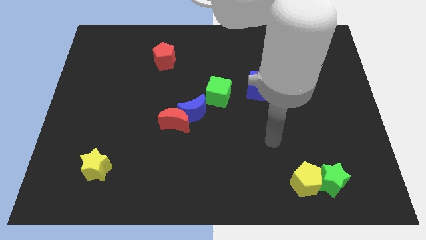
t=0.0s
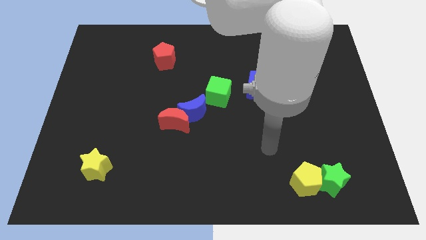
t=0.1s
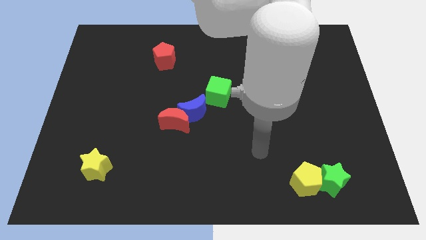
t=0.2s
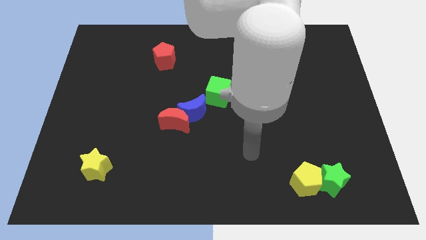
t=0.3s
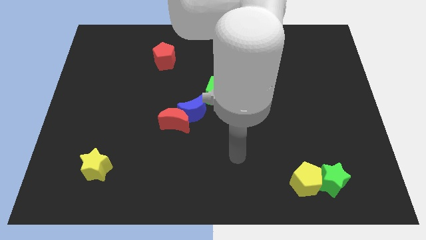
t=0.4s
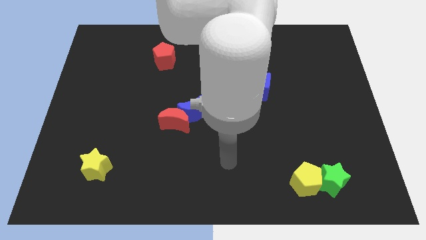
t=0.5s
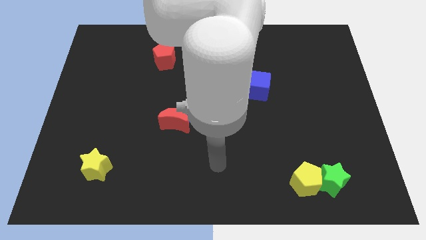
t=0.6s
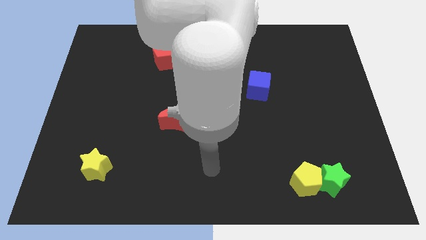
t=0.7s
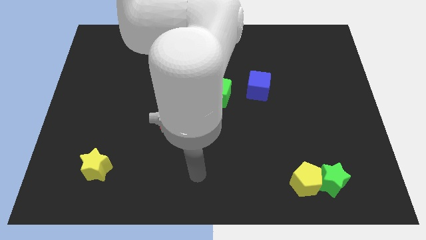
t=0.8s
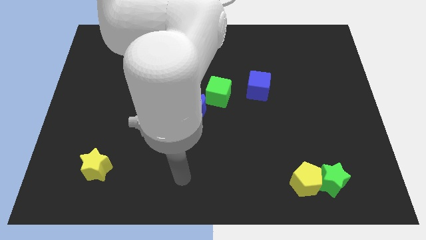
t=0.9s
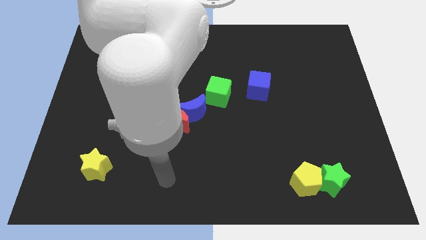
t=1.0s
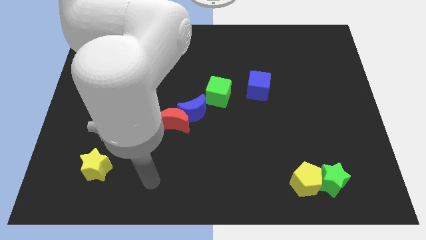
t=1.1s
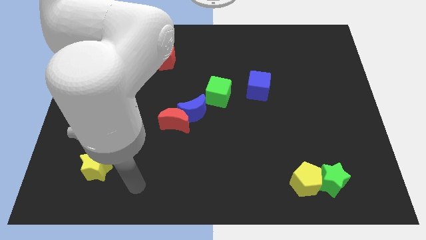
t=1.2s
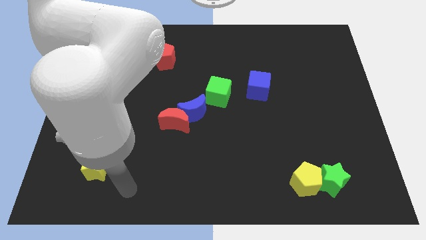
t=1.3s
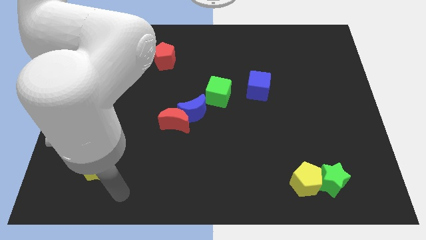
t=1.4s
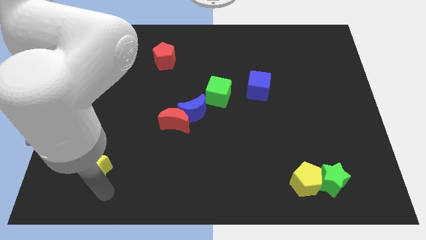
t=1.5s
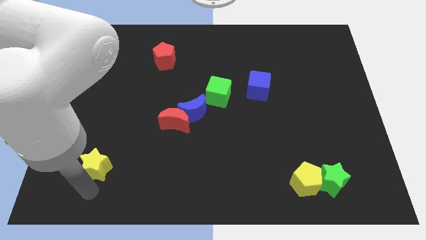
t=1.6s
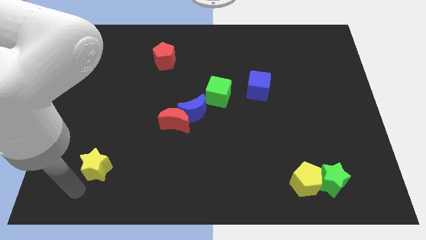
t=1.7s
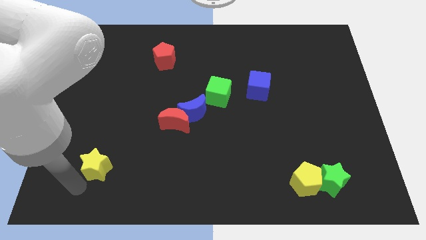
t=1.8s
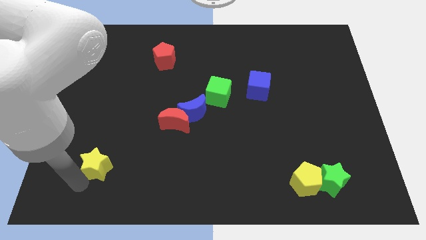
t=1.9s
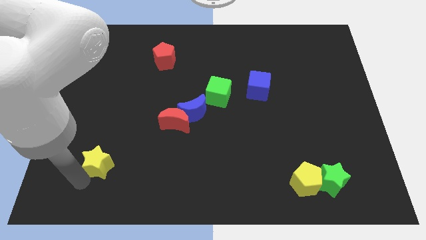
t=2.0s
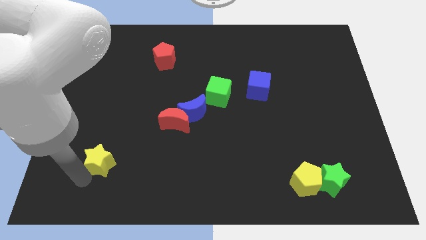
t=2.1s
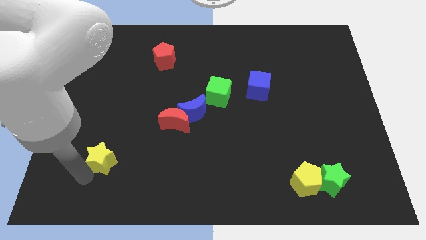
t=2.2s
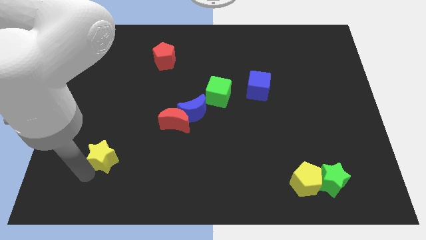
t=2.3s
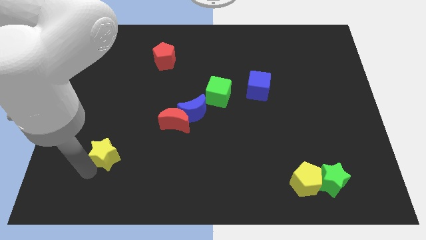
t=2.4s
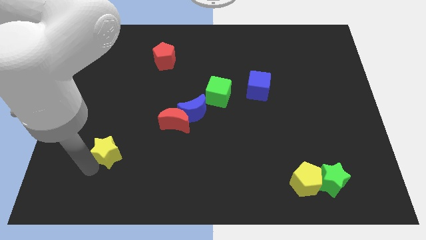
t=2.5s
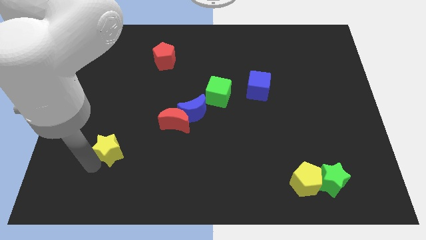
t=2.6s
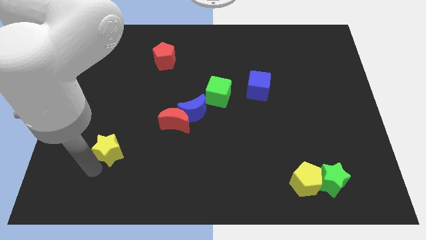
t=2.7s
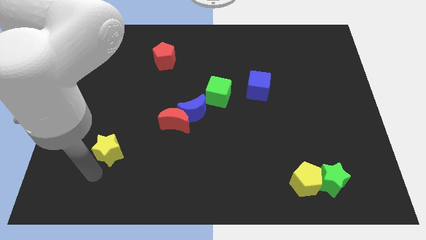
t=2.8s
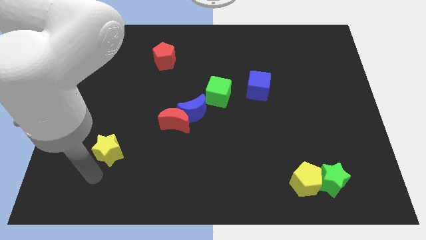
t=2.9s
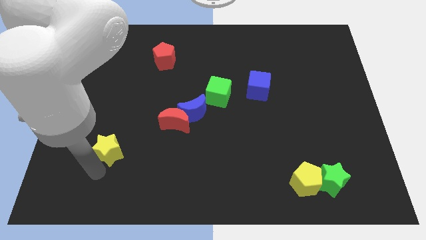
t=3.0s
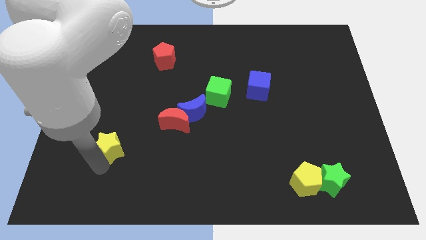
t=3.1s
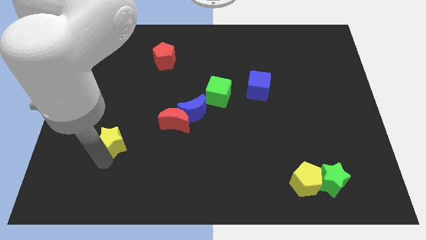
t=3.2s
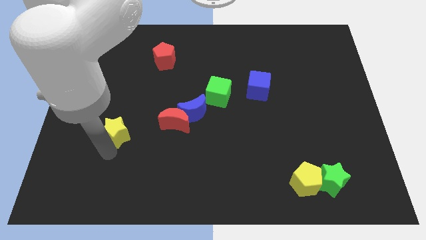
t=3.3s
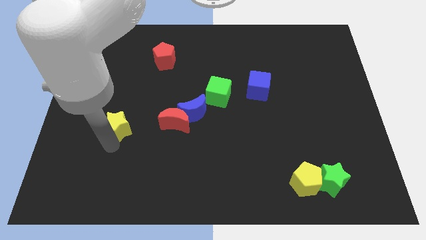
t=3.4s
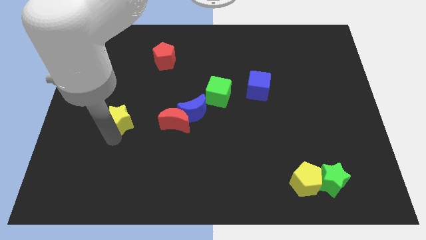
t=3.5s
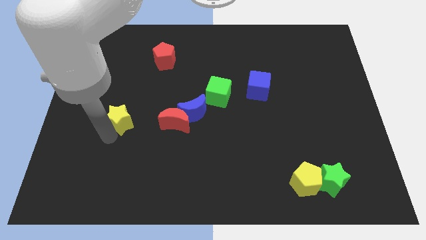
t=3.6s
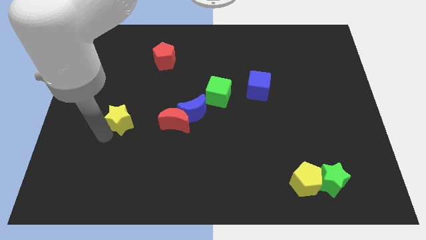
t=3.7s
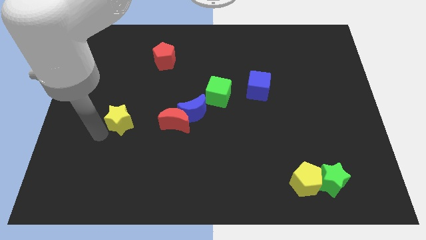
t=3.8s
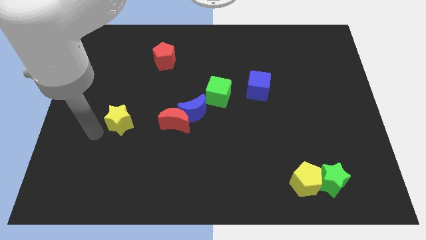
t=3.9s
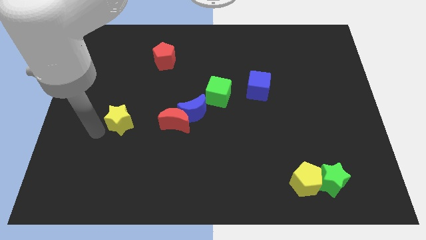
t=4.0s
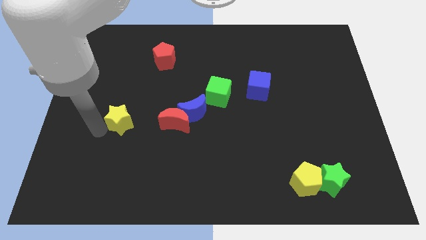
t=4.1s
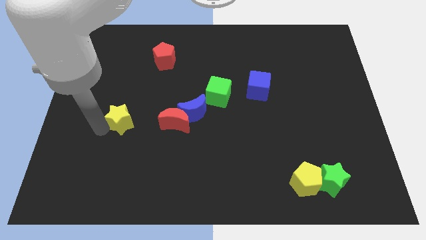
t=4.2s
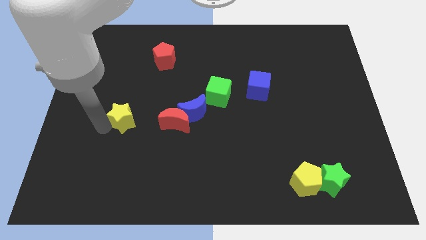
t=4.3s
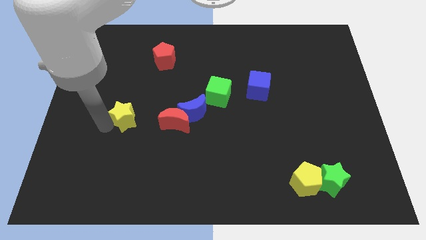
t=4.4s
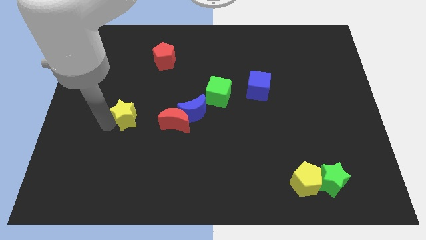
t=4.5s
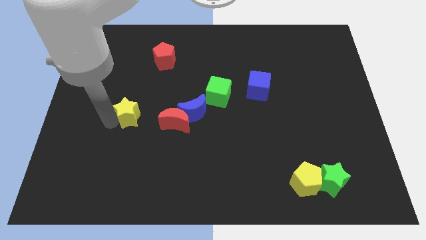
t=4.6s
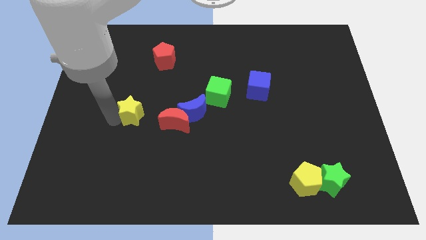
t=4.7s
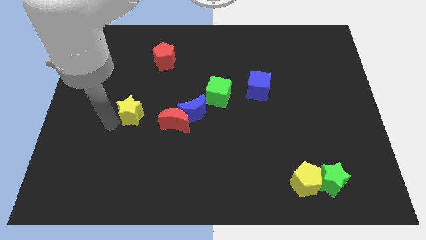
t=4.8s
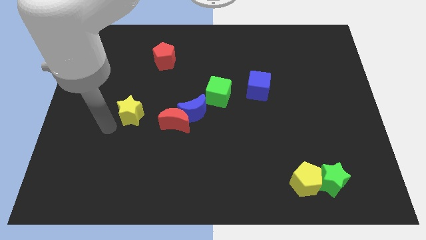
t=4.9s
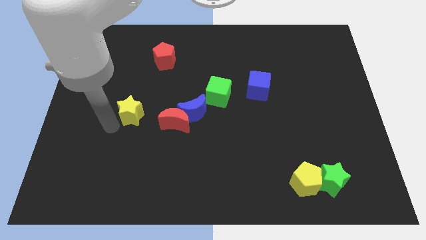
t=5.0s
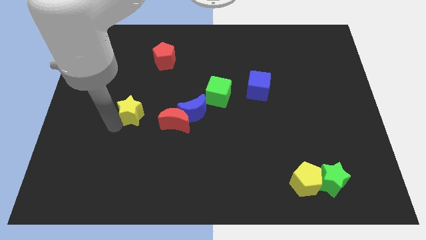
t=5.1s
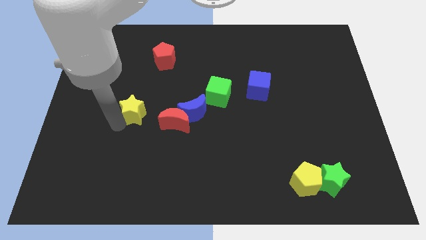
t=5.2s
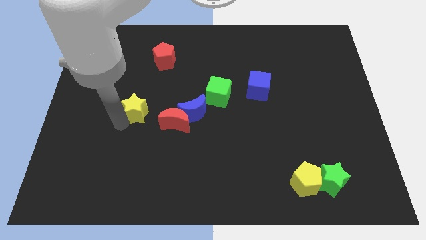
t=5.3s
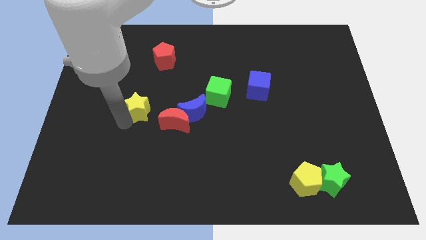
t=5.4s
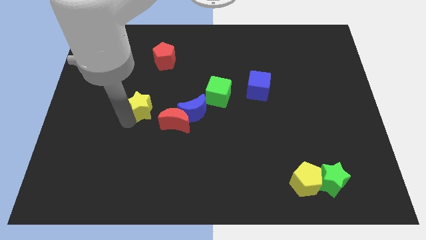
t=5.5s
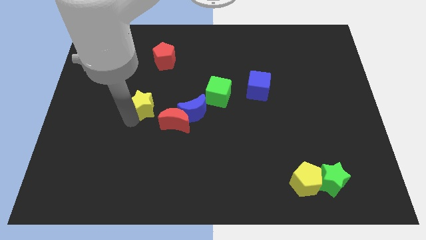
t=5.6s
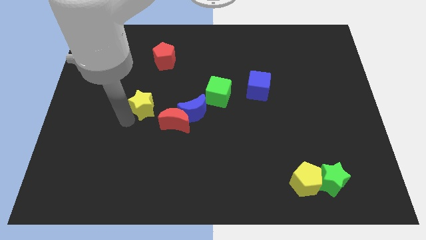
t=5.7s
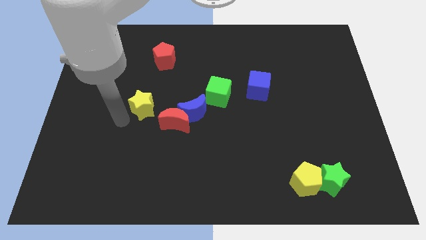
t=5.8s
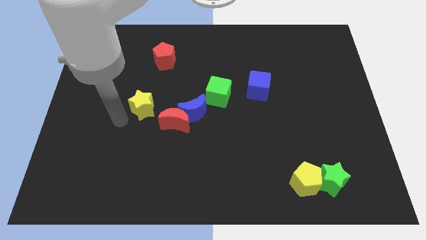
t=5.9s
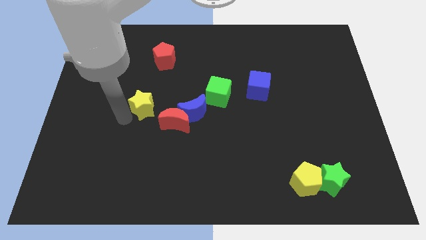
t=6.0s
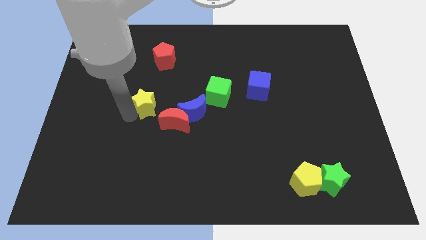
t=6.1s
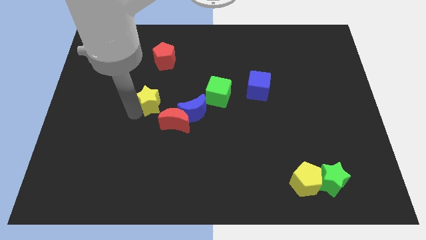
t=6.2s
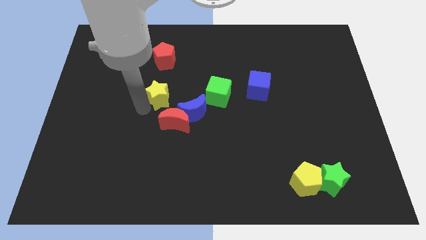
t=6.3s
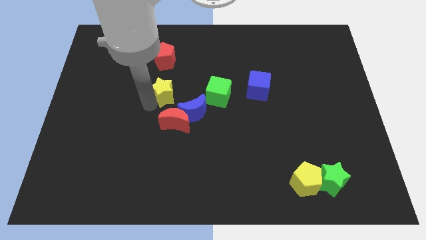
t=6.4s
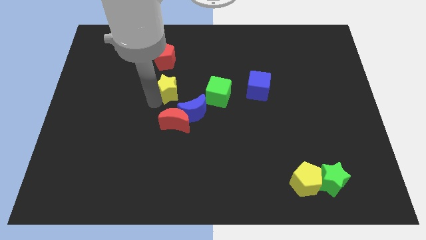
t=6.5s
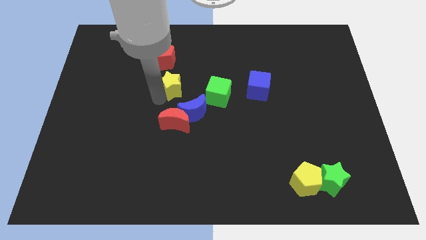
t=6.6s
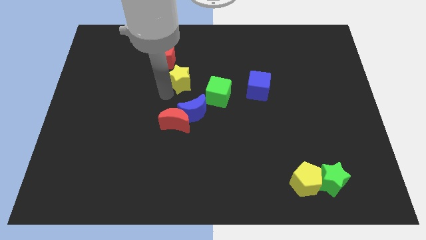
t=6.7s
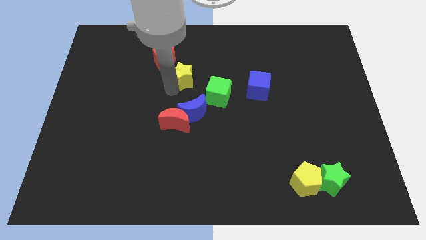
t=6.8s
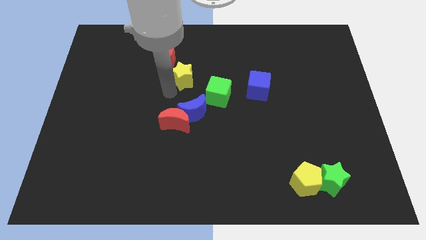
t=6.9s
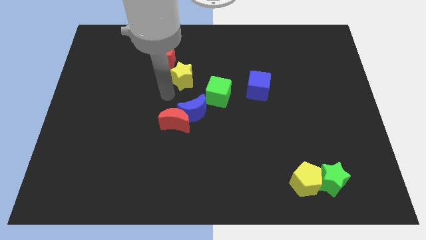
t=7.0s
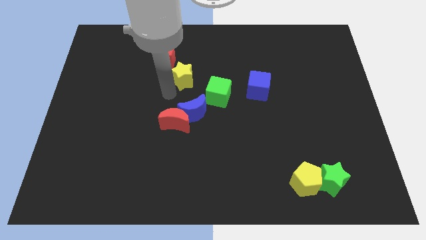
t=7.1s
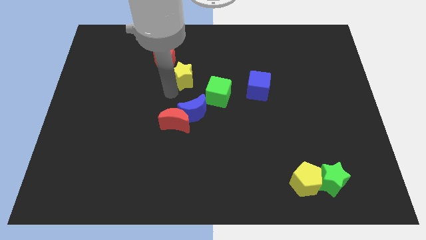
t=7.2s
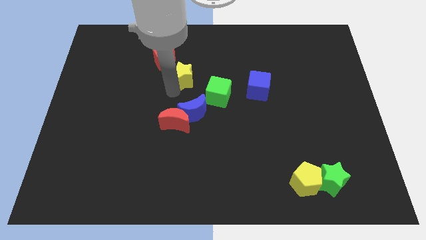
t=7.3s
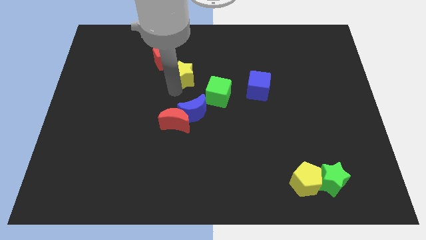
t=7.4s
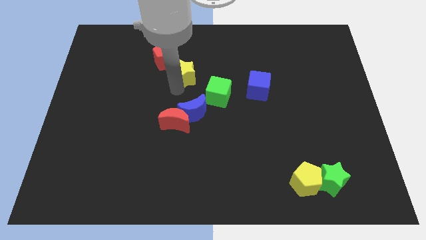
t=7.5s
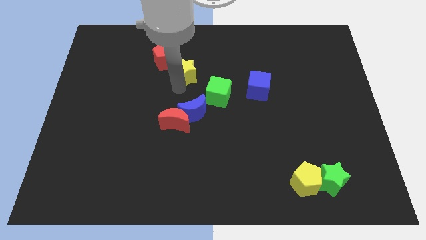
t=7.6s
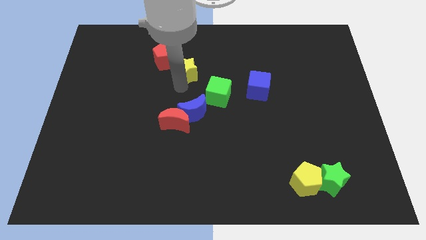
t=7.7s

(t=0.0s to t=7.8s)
move the yellow star to the right of the red pentagon
